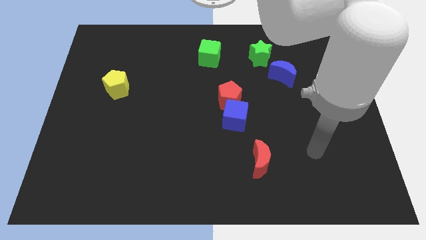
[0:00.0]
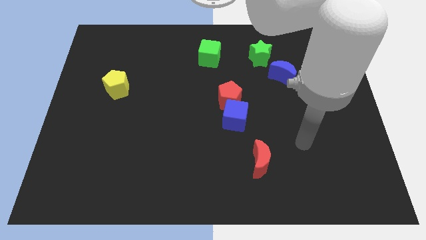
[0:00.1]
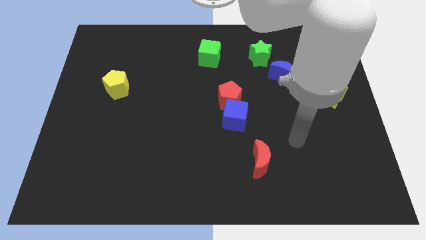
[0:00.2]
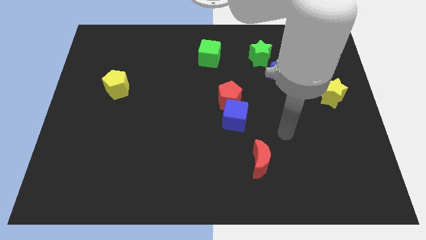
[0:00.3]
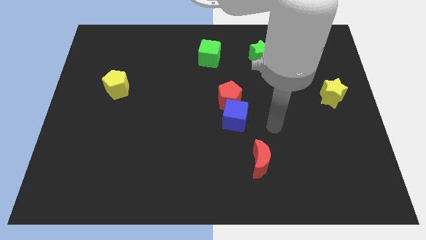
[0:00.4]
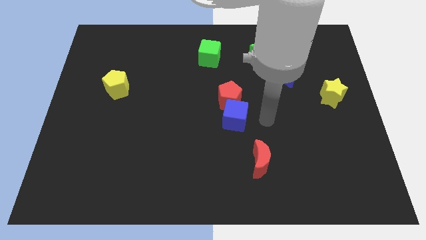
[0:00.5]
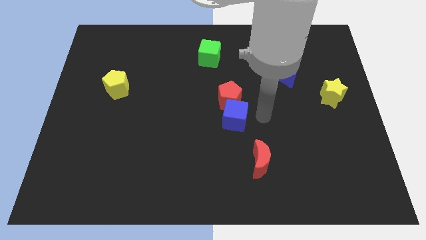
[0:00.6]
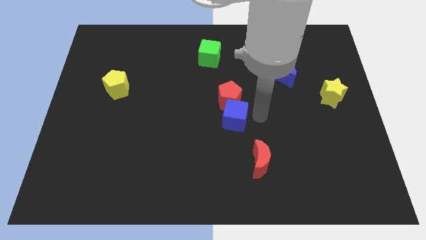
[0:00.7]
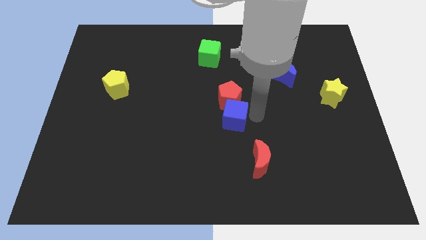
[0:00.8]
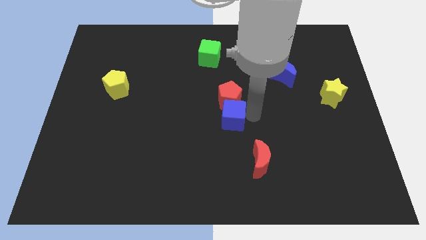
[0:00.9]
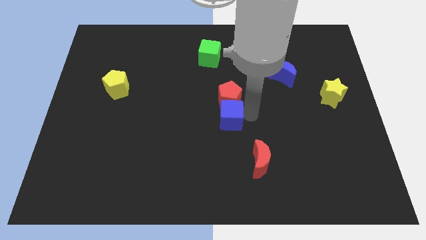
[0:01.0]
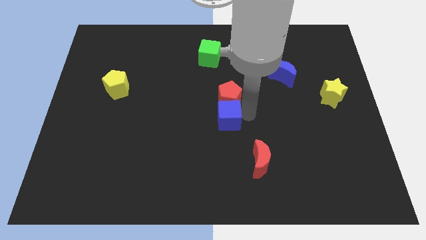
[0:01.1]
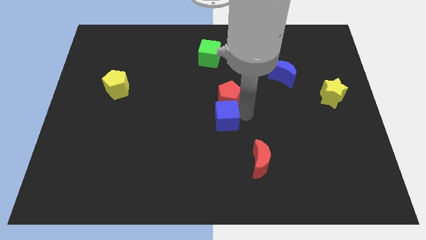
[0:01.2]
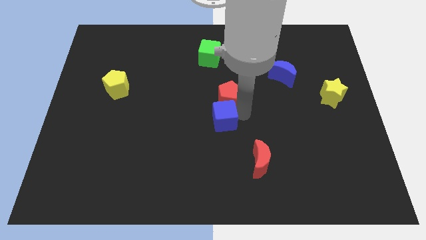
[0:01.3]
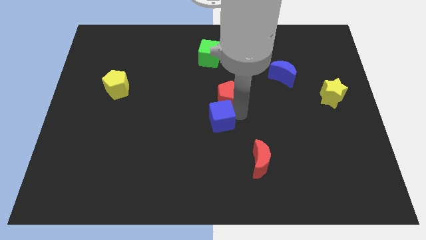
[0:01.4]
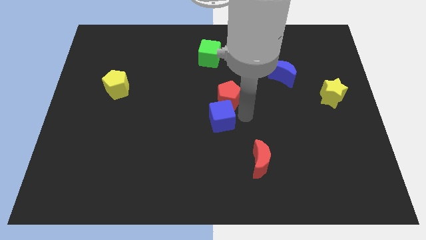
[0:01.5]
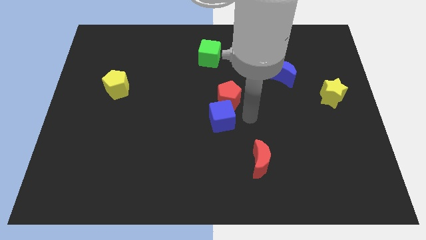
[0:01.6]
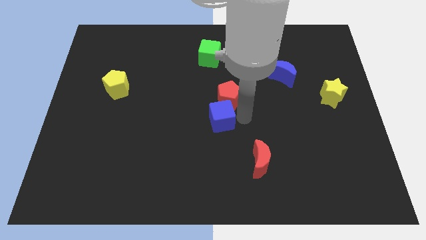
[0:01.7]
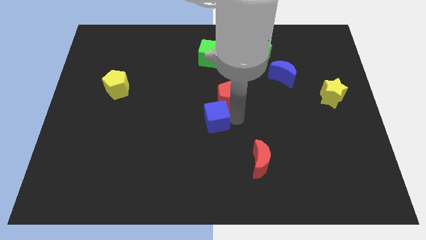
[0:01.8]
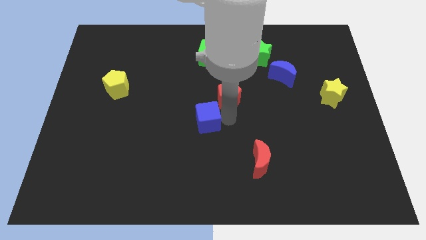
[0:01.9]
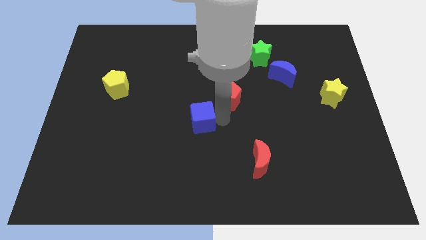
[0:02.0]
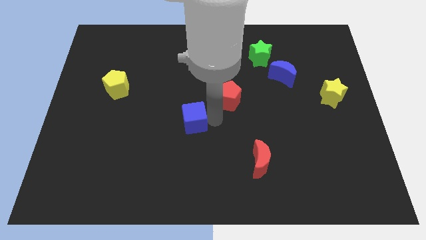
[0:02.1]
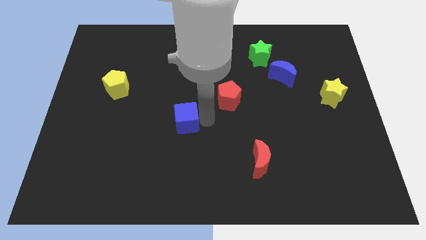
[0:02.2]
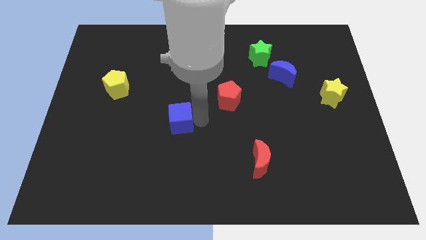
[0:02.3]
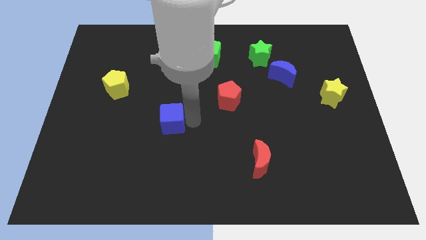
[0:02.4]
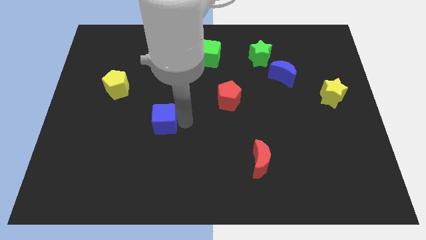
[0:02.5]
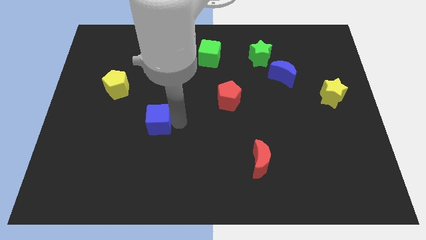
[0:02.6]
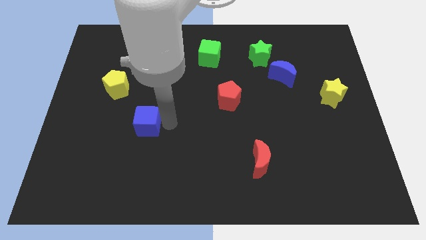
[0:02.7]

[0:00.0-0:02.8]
move the blue cube left

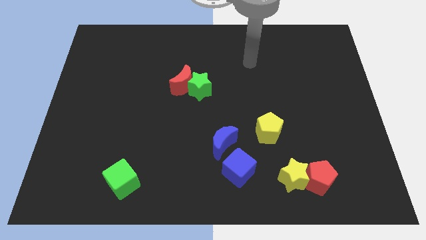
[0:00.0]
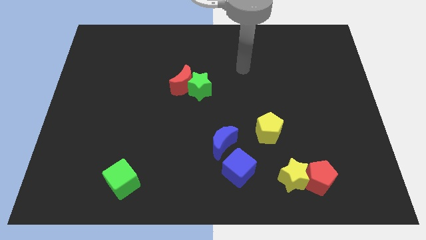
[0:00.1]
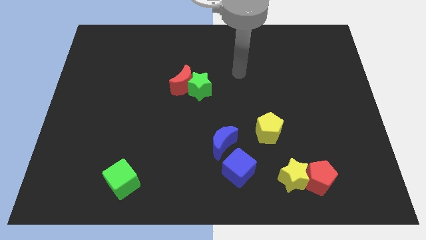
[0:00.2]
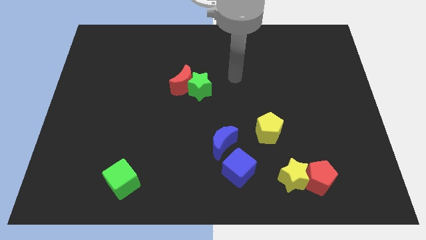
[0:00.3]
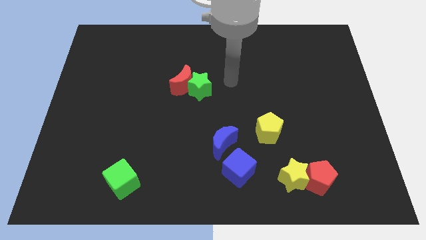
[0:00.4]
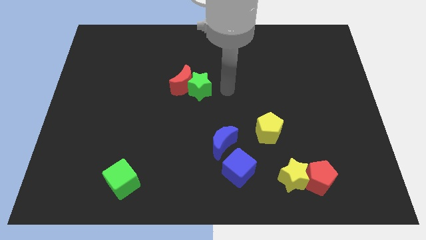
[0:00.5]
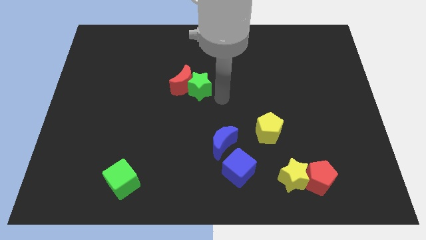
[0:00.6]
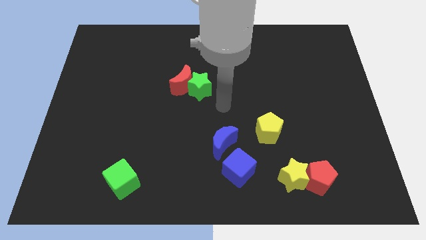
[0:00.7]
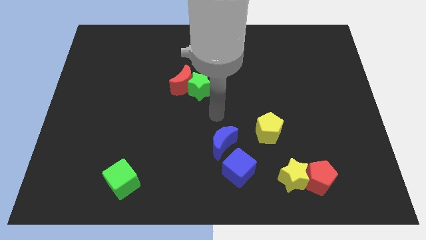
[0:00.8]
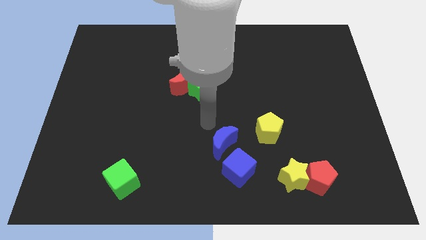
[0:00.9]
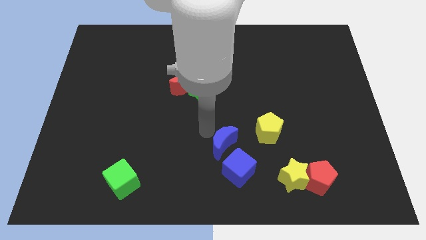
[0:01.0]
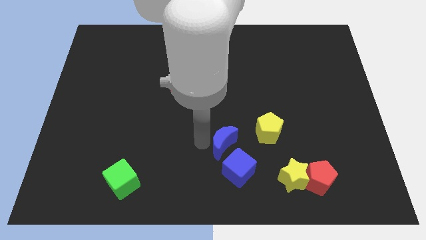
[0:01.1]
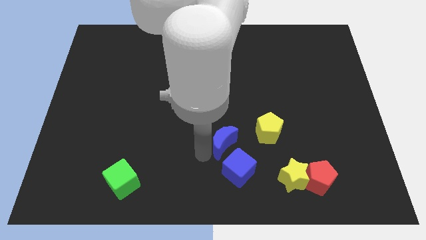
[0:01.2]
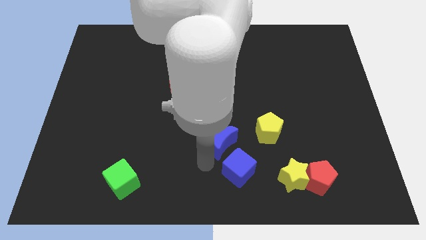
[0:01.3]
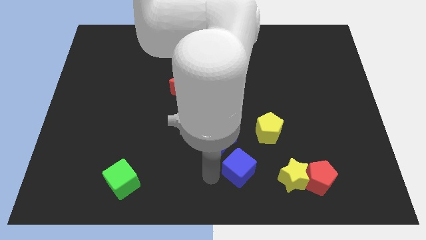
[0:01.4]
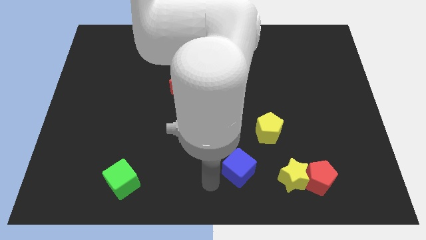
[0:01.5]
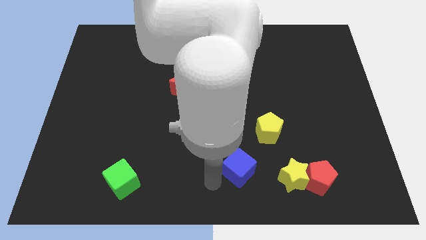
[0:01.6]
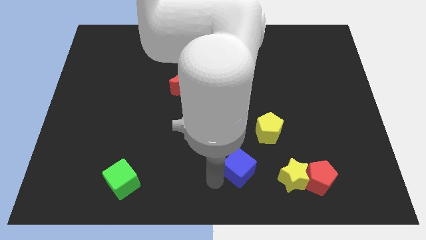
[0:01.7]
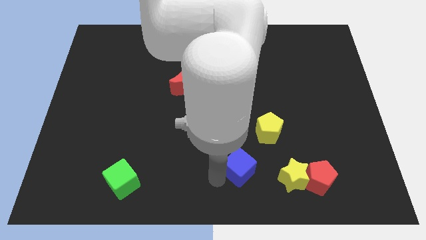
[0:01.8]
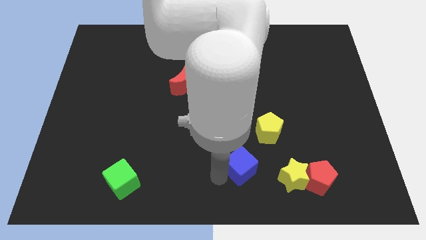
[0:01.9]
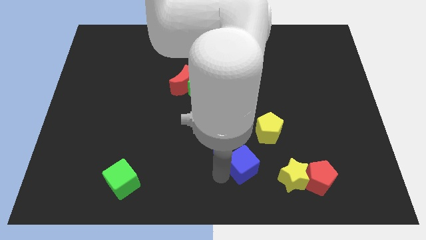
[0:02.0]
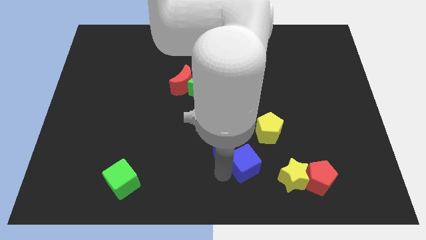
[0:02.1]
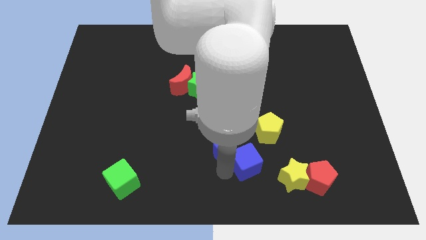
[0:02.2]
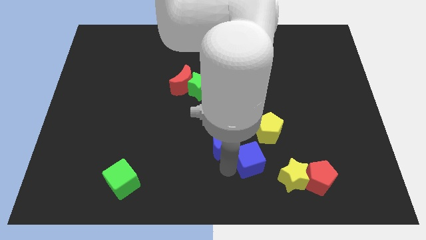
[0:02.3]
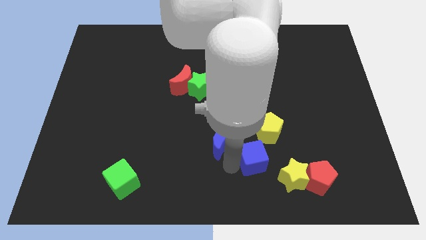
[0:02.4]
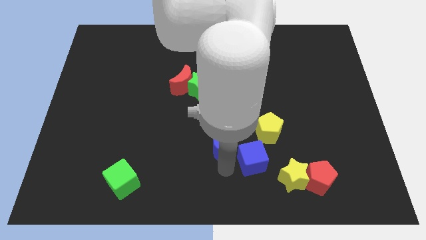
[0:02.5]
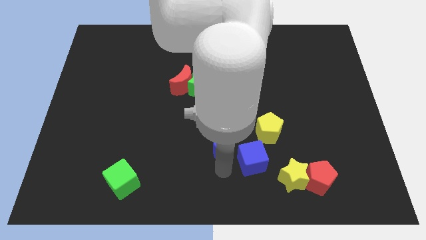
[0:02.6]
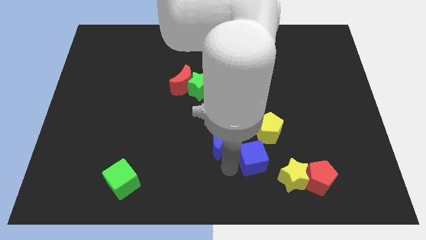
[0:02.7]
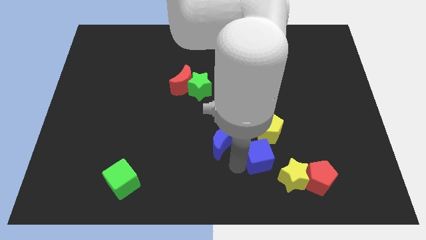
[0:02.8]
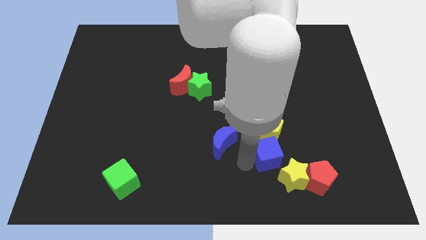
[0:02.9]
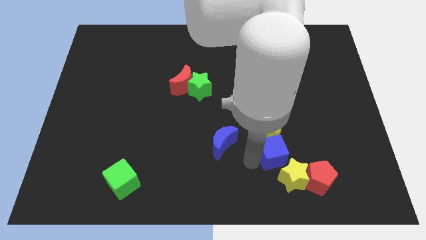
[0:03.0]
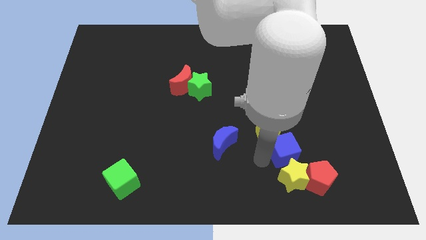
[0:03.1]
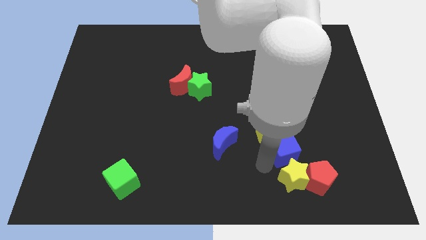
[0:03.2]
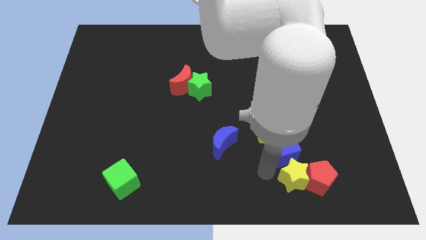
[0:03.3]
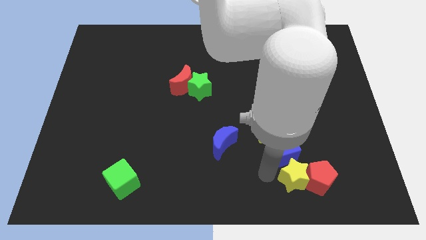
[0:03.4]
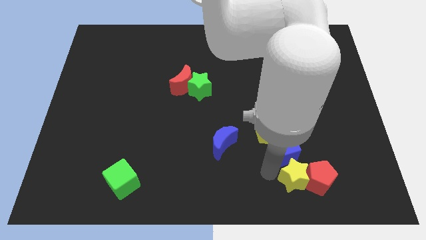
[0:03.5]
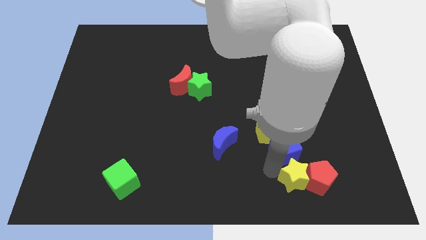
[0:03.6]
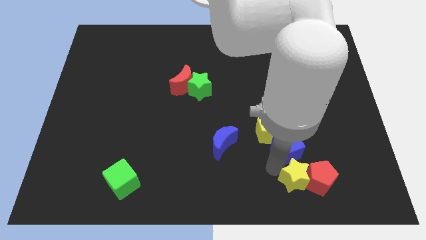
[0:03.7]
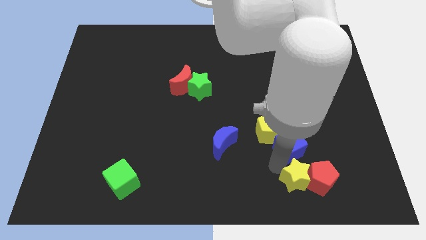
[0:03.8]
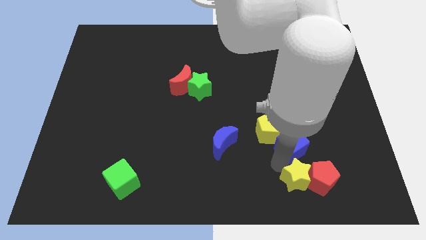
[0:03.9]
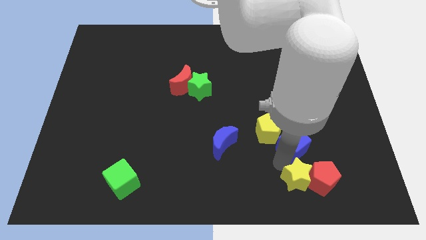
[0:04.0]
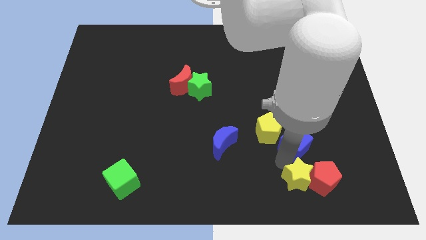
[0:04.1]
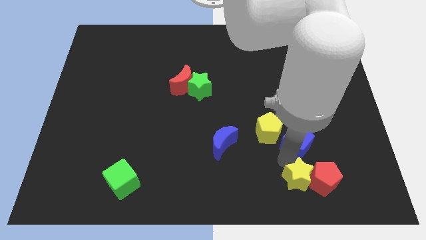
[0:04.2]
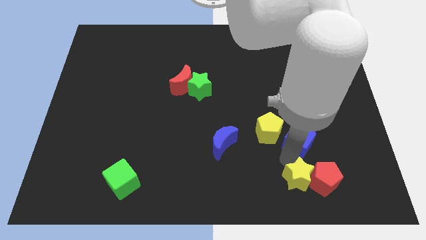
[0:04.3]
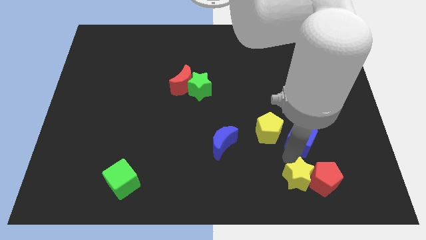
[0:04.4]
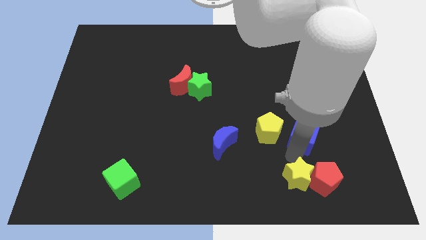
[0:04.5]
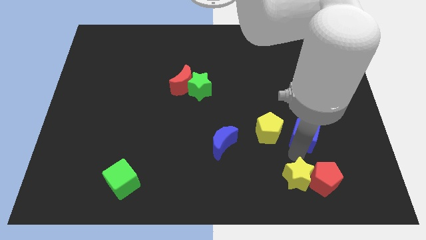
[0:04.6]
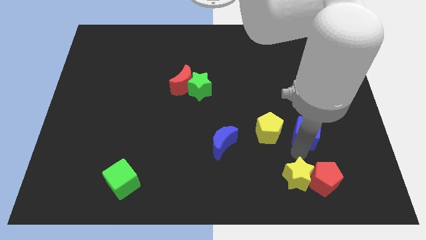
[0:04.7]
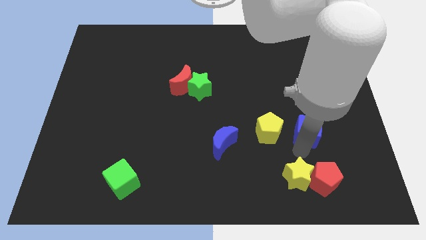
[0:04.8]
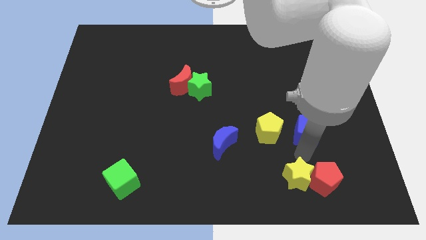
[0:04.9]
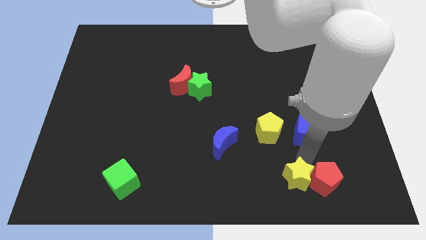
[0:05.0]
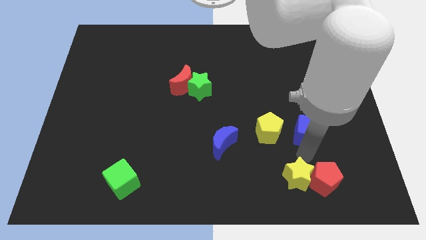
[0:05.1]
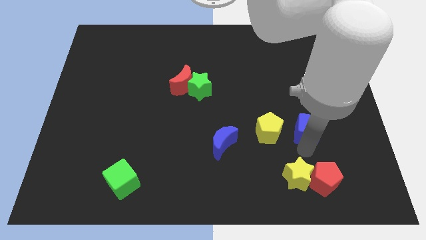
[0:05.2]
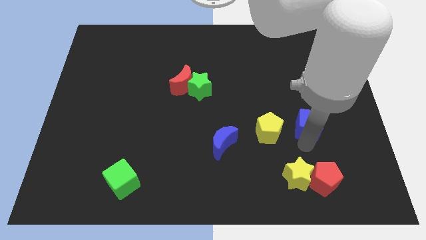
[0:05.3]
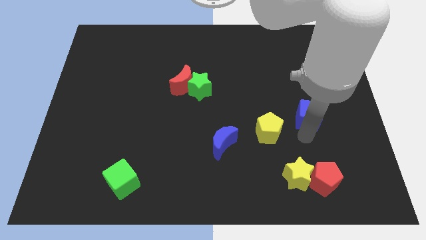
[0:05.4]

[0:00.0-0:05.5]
move the blue cube up and right
